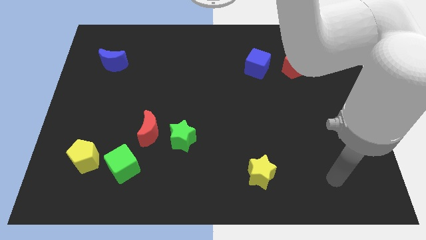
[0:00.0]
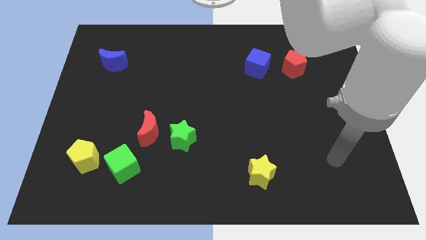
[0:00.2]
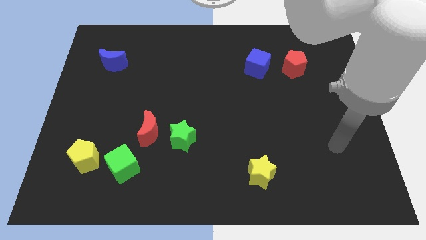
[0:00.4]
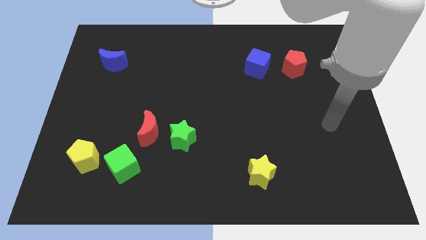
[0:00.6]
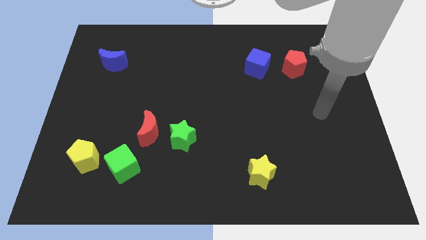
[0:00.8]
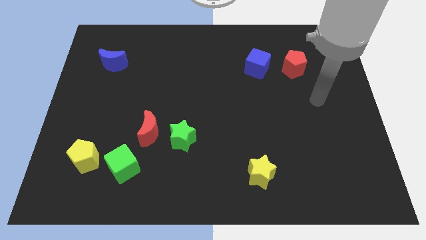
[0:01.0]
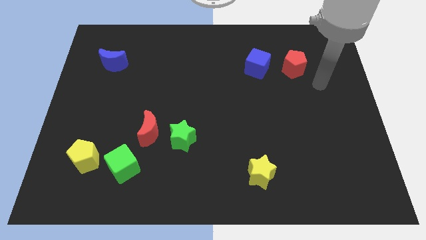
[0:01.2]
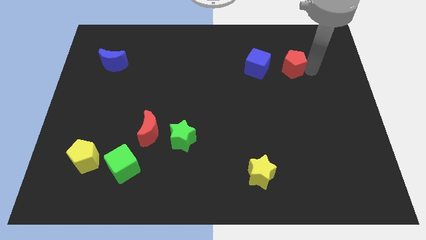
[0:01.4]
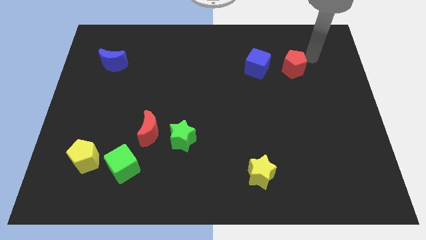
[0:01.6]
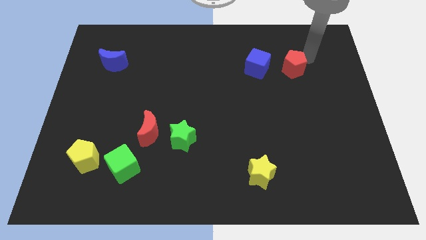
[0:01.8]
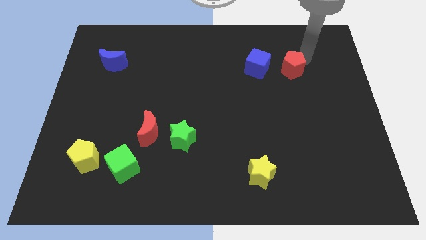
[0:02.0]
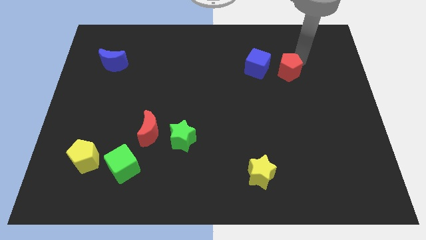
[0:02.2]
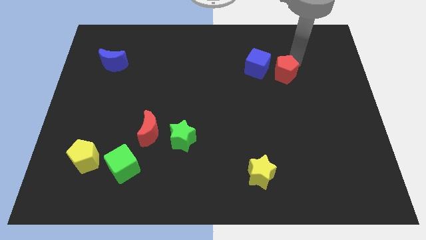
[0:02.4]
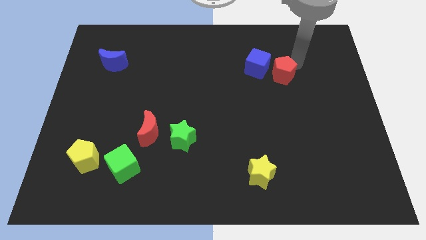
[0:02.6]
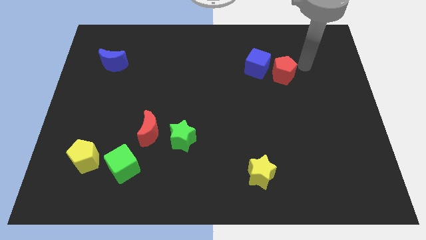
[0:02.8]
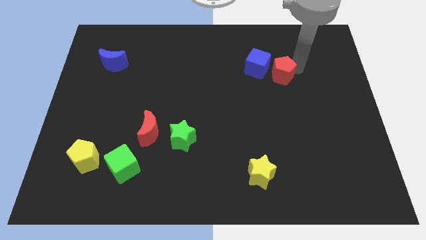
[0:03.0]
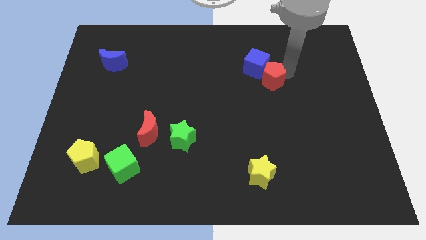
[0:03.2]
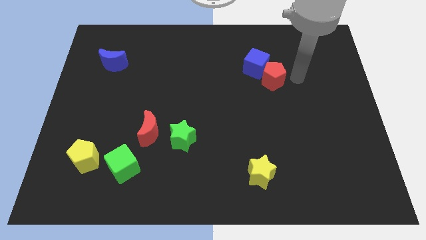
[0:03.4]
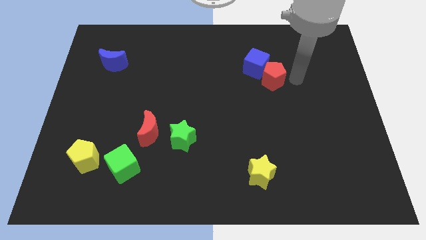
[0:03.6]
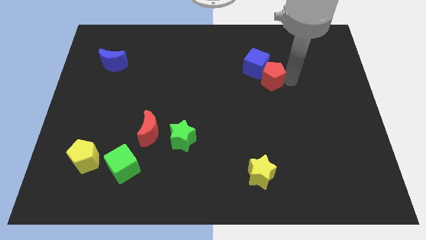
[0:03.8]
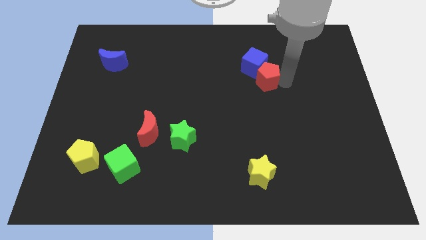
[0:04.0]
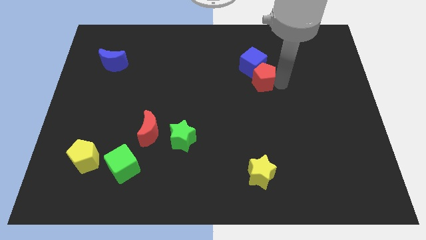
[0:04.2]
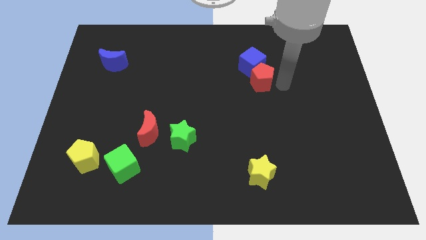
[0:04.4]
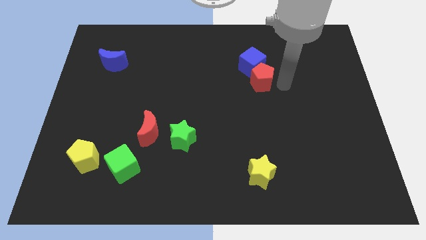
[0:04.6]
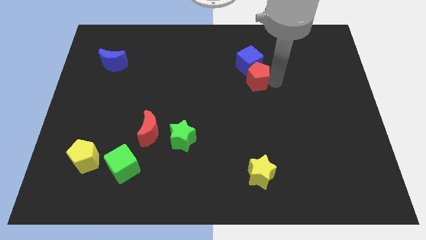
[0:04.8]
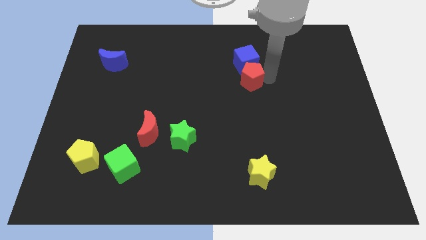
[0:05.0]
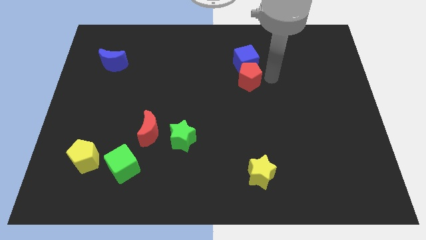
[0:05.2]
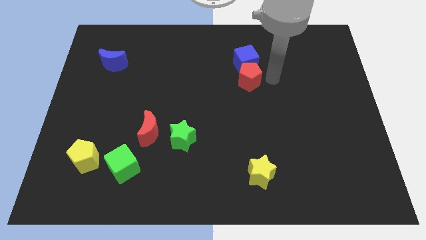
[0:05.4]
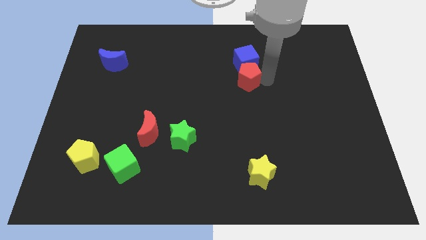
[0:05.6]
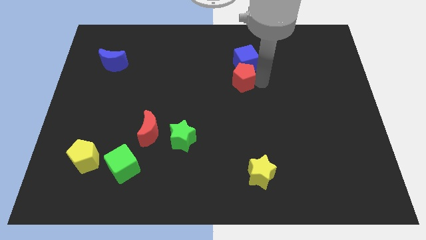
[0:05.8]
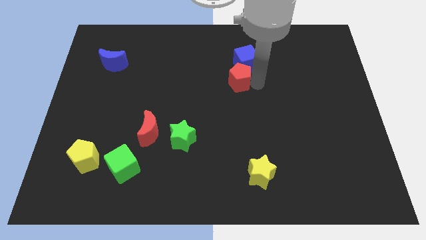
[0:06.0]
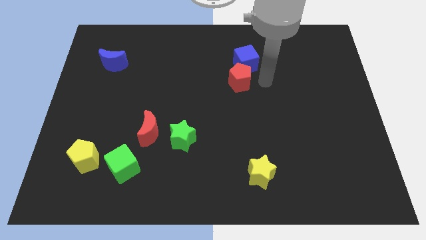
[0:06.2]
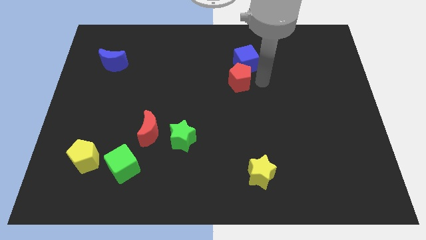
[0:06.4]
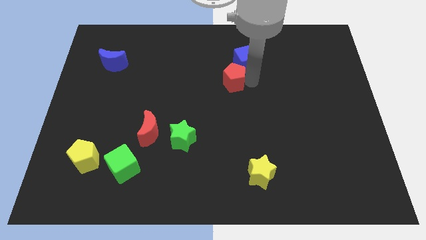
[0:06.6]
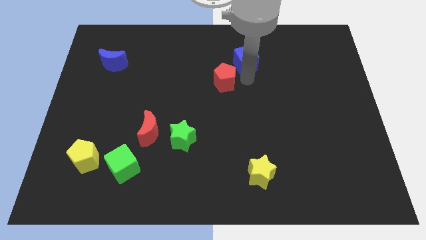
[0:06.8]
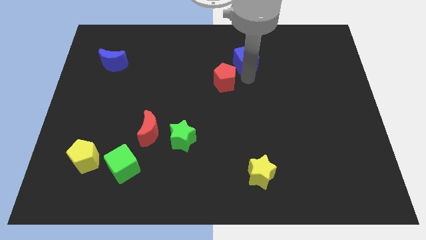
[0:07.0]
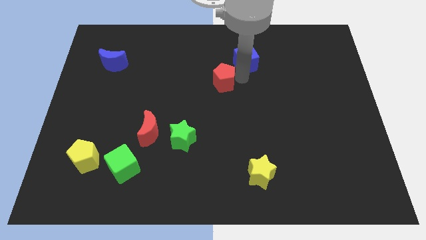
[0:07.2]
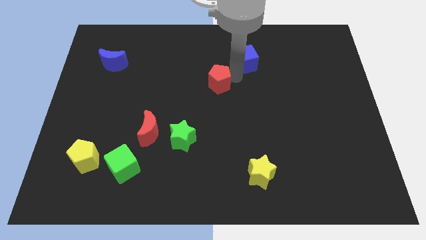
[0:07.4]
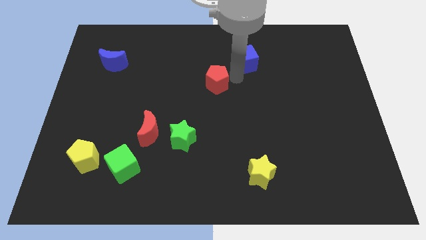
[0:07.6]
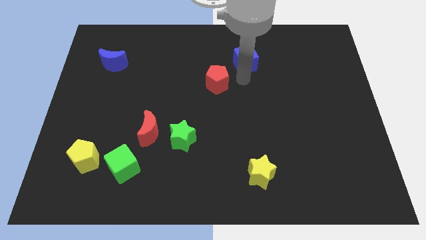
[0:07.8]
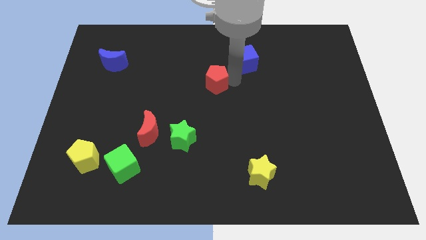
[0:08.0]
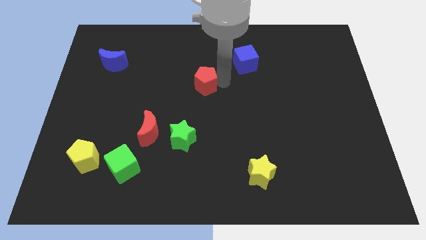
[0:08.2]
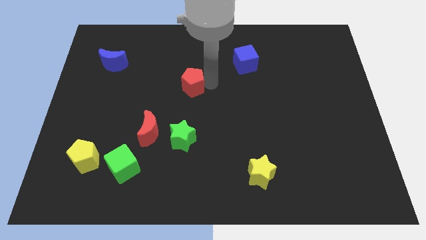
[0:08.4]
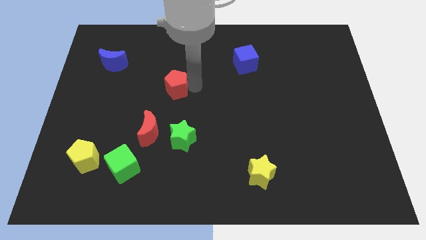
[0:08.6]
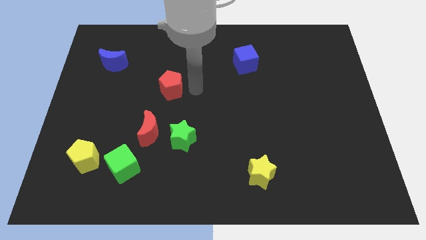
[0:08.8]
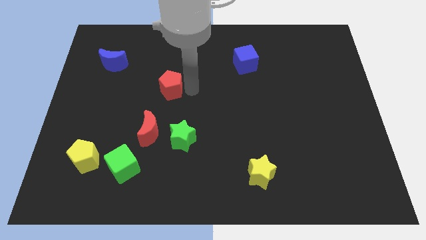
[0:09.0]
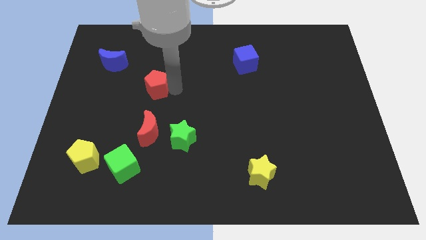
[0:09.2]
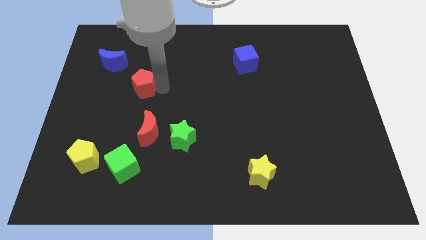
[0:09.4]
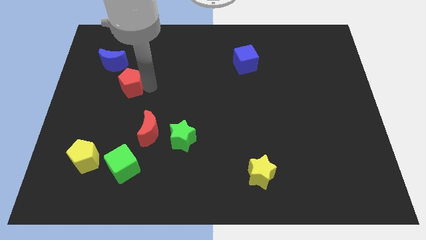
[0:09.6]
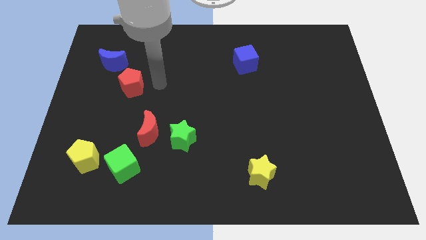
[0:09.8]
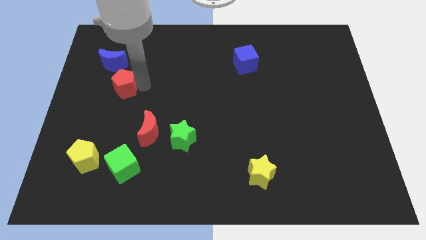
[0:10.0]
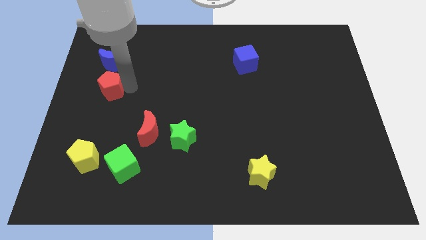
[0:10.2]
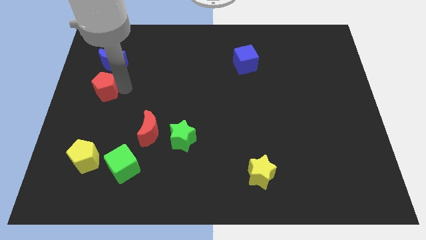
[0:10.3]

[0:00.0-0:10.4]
slide the red pentagon to the left side of the board

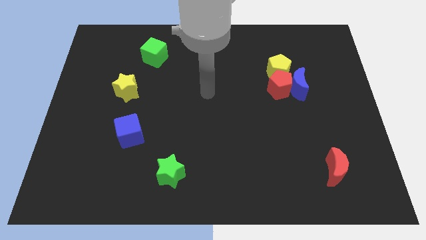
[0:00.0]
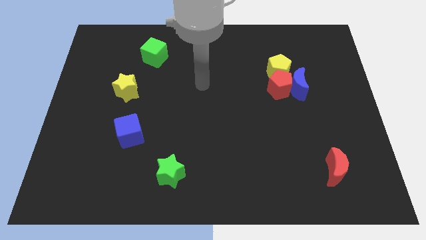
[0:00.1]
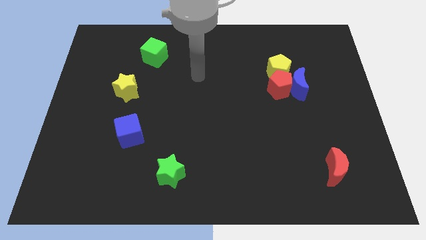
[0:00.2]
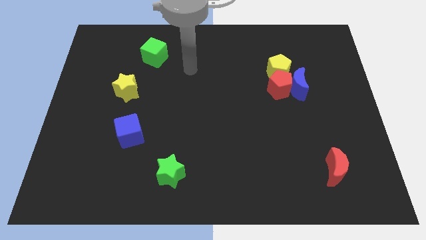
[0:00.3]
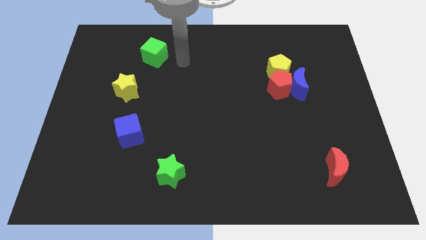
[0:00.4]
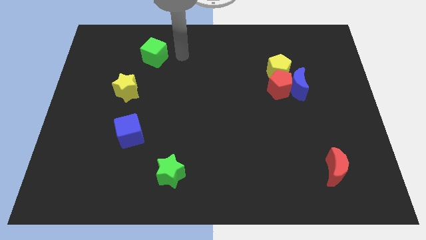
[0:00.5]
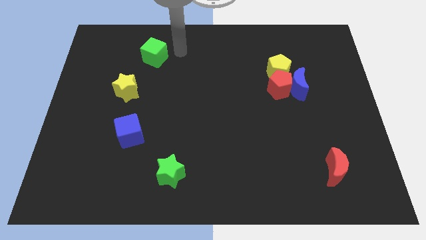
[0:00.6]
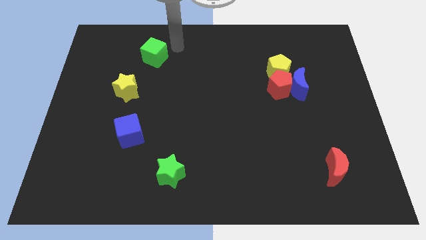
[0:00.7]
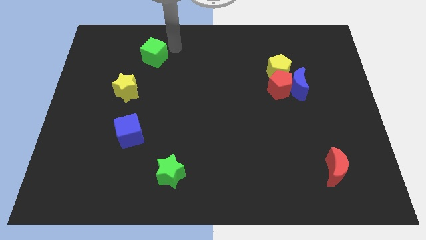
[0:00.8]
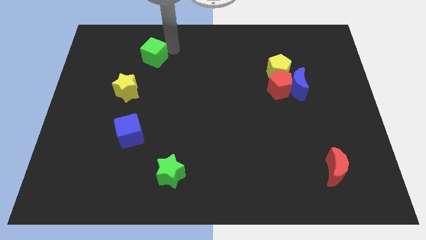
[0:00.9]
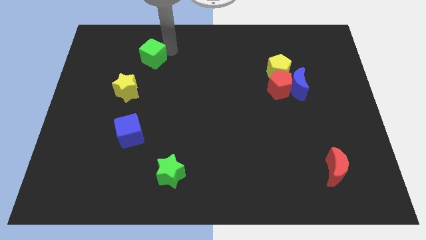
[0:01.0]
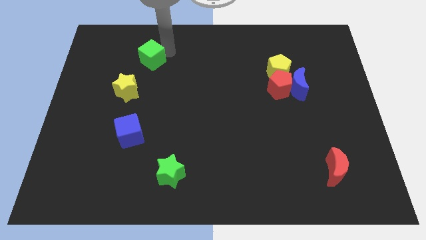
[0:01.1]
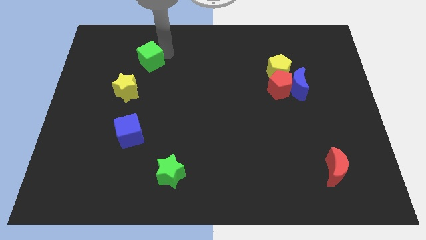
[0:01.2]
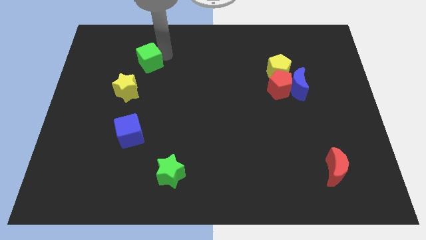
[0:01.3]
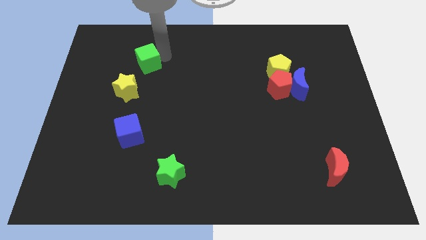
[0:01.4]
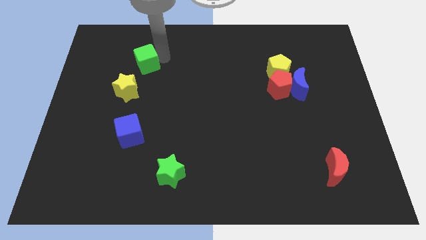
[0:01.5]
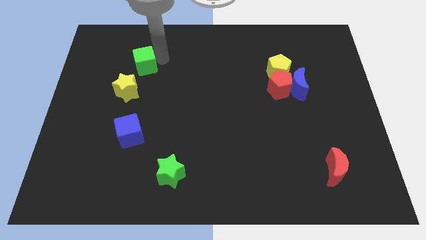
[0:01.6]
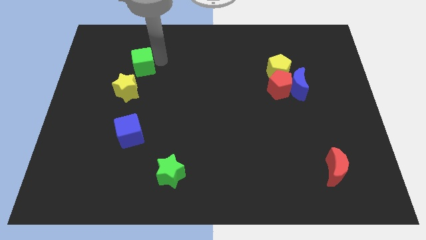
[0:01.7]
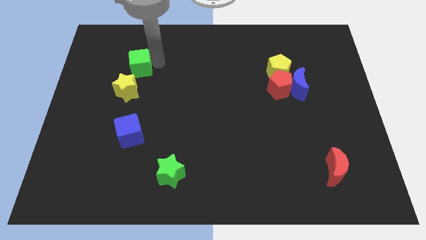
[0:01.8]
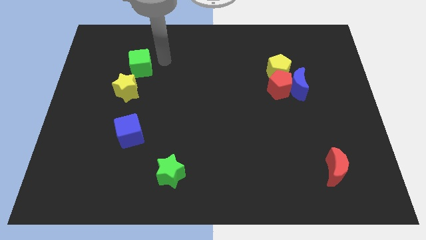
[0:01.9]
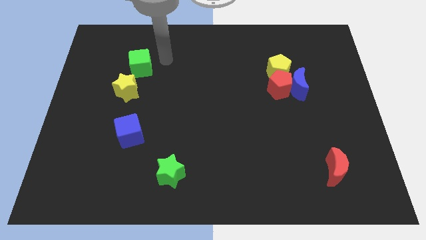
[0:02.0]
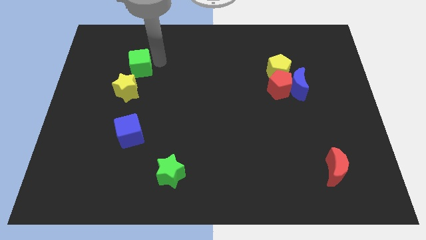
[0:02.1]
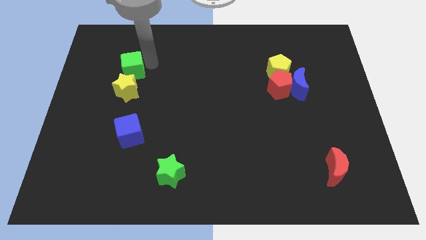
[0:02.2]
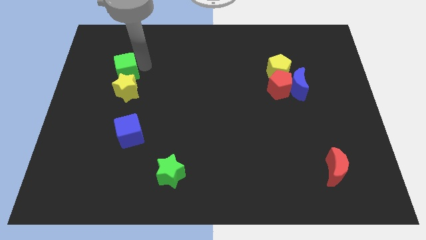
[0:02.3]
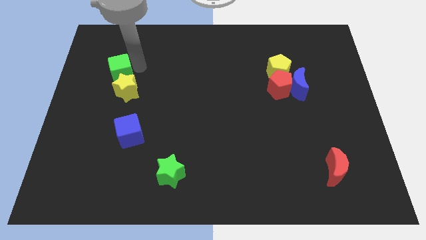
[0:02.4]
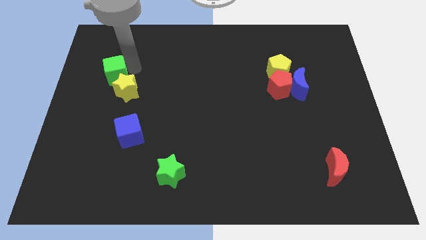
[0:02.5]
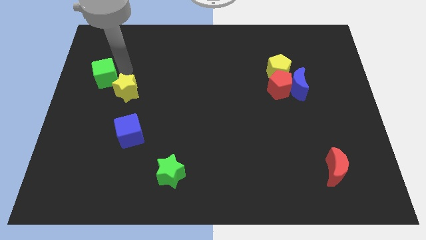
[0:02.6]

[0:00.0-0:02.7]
slide the green cube to the left side of the board
